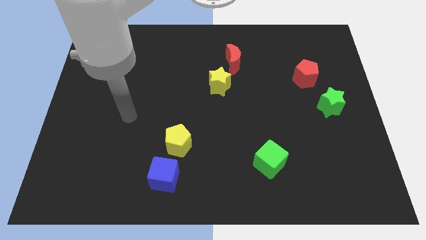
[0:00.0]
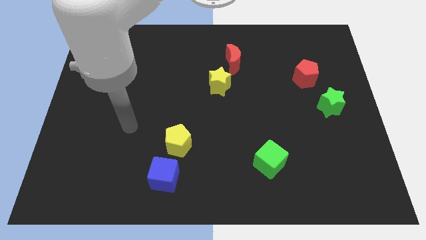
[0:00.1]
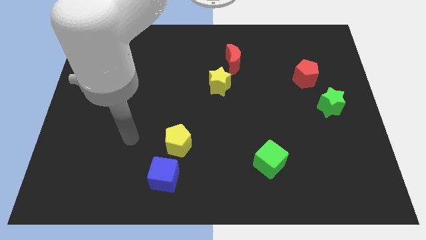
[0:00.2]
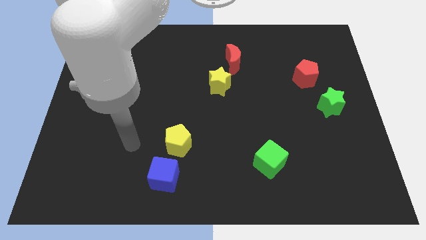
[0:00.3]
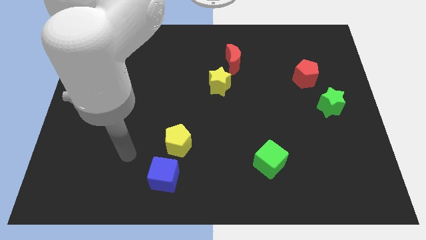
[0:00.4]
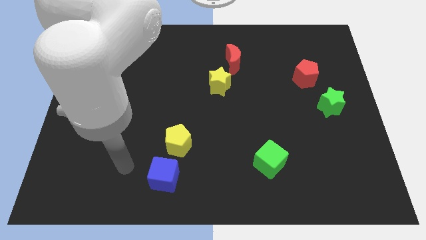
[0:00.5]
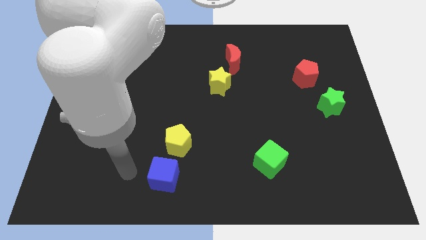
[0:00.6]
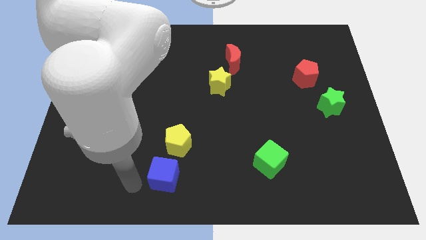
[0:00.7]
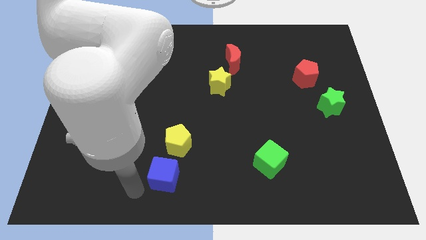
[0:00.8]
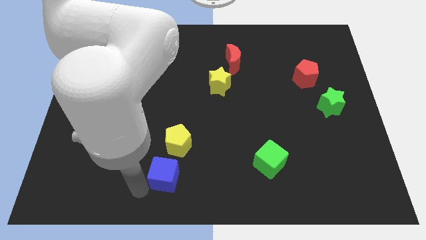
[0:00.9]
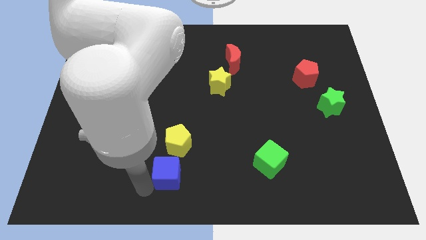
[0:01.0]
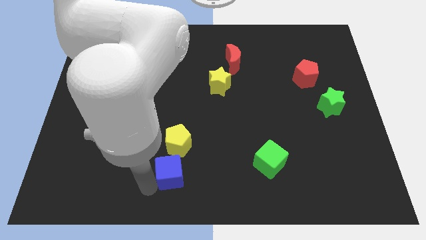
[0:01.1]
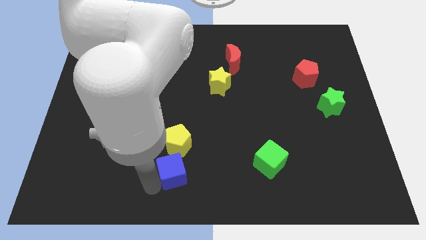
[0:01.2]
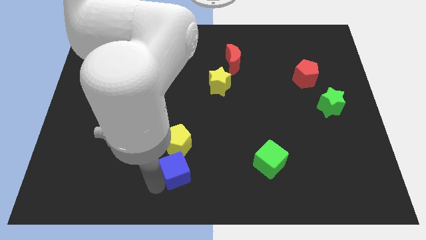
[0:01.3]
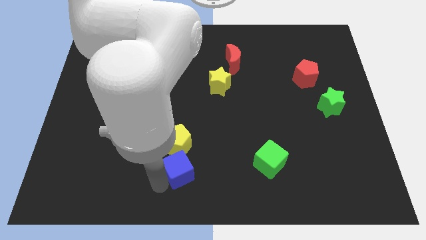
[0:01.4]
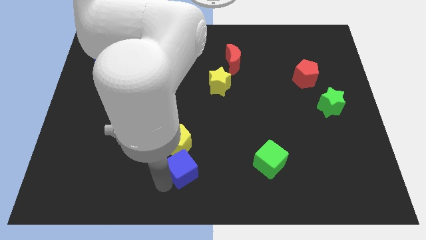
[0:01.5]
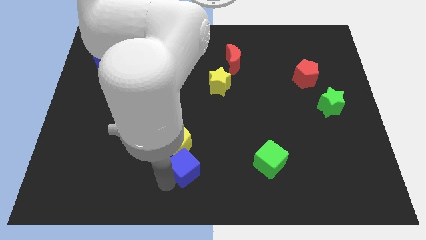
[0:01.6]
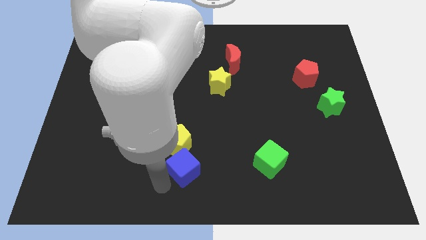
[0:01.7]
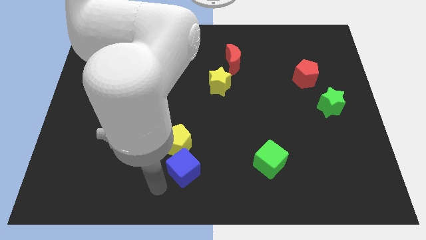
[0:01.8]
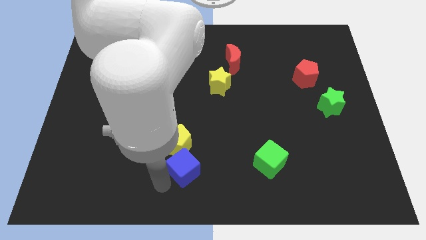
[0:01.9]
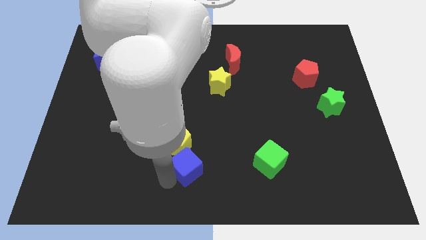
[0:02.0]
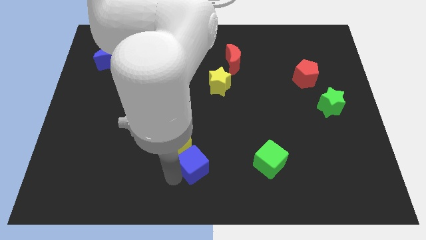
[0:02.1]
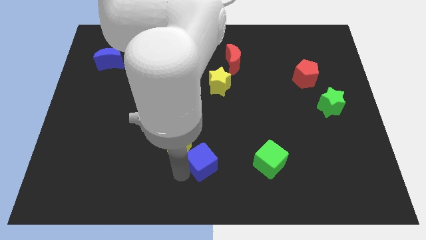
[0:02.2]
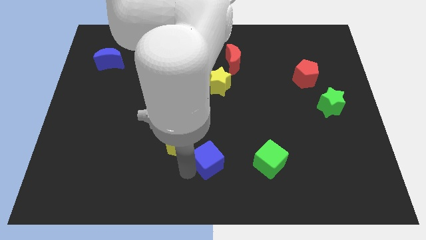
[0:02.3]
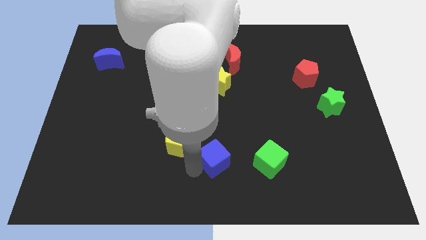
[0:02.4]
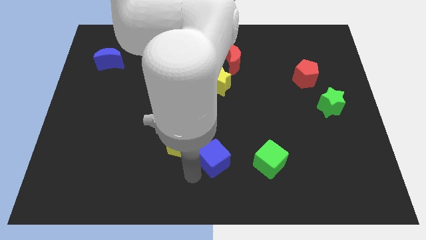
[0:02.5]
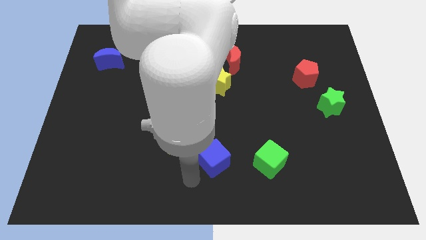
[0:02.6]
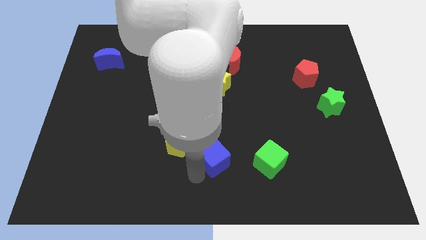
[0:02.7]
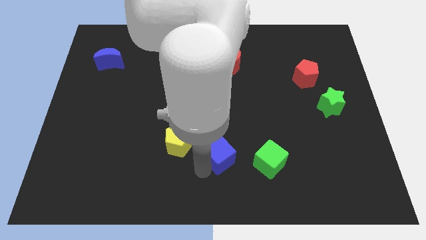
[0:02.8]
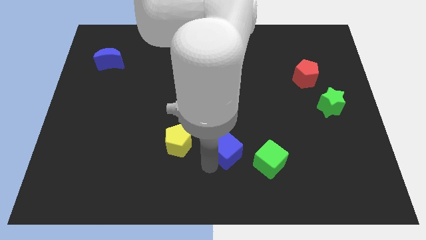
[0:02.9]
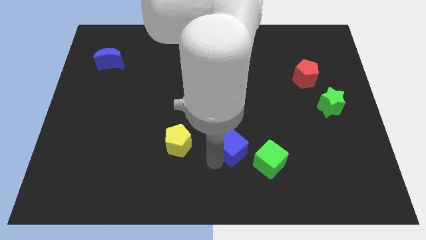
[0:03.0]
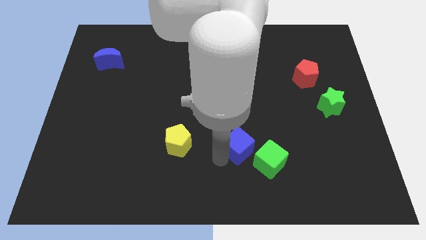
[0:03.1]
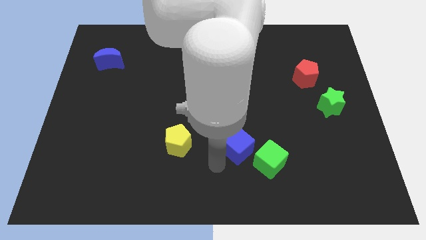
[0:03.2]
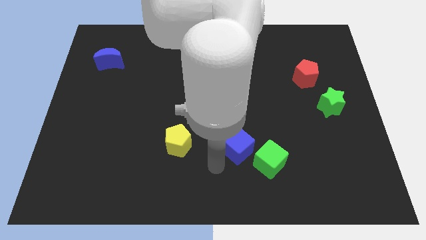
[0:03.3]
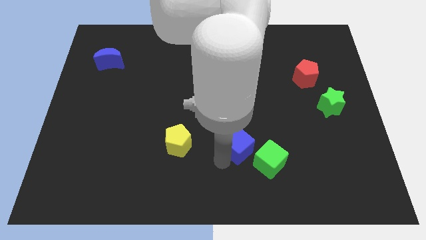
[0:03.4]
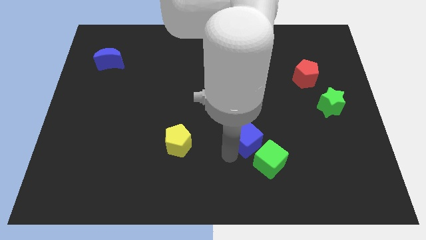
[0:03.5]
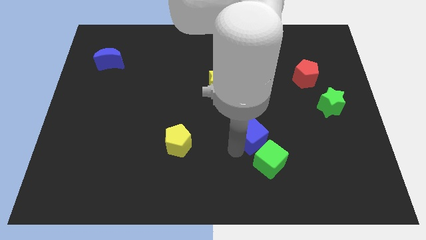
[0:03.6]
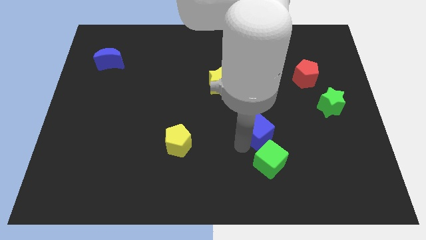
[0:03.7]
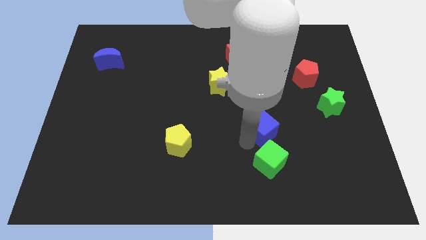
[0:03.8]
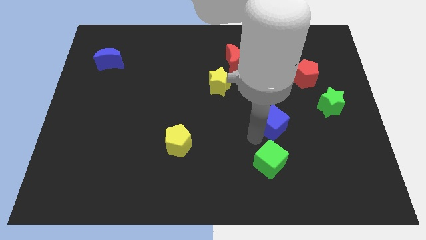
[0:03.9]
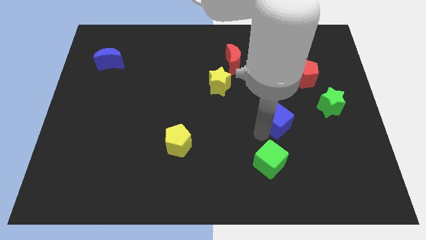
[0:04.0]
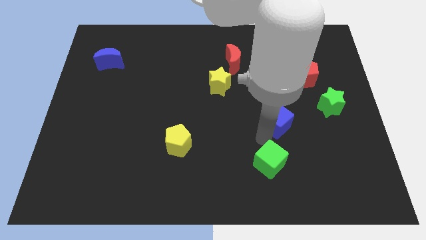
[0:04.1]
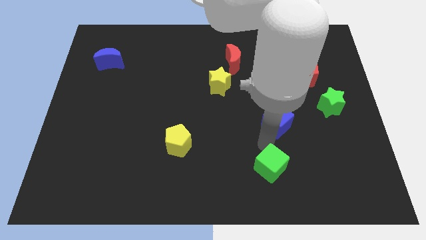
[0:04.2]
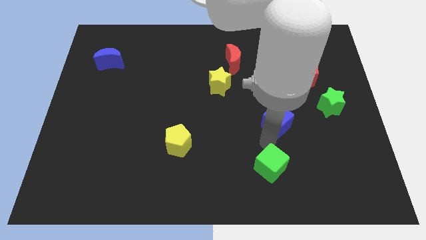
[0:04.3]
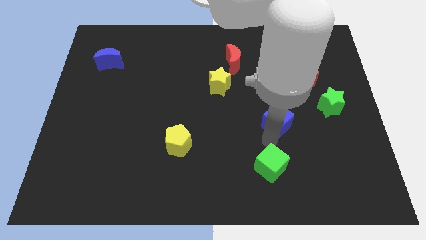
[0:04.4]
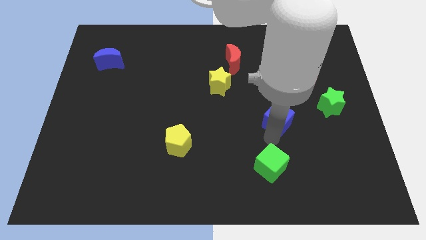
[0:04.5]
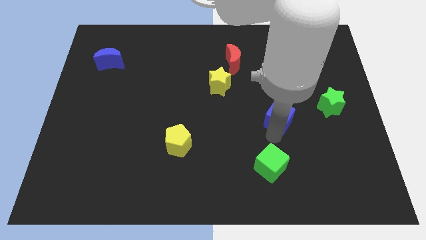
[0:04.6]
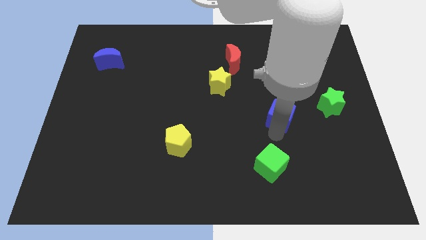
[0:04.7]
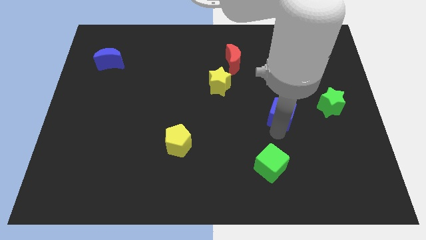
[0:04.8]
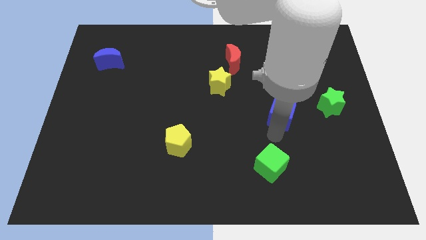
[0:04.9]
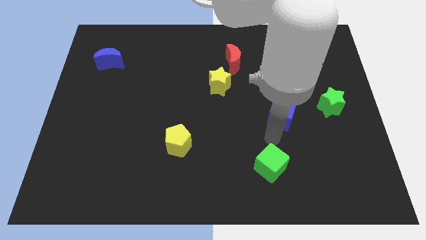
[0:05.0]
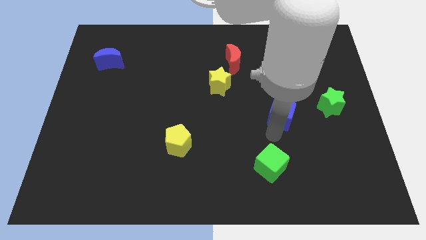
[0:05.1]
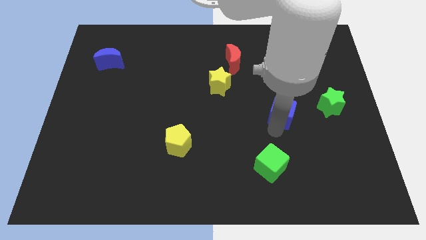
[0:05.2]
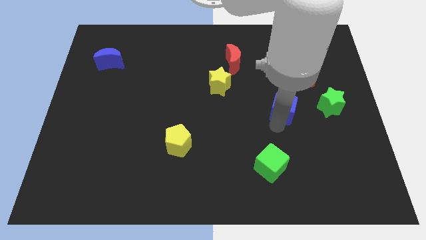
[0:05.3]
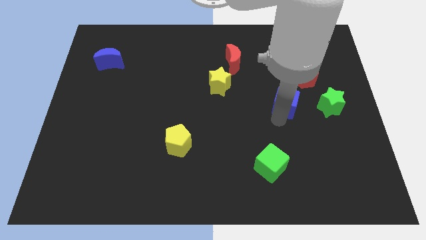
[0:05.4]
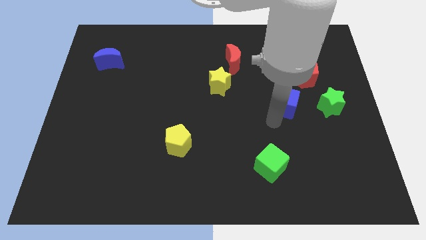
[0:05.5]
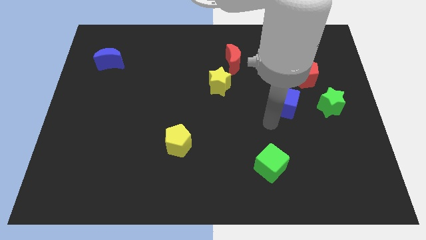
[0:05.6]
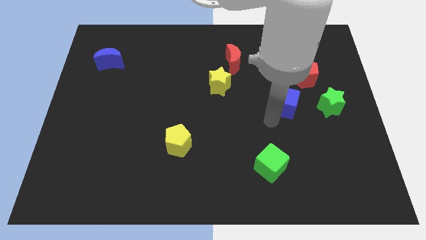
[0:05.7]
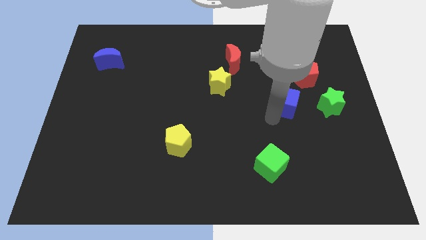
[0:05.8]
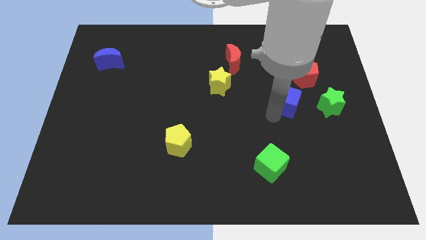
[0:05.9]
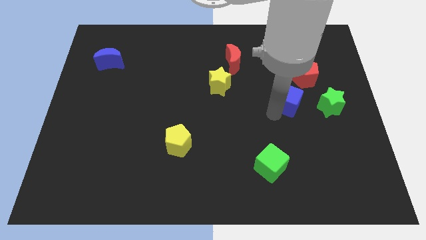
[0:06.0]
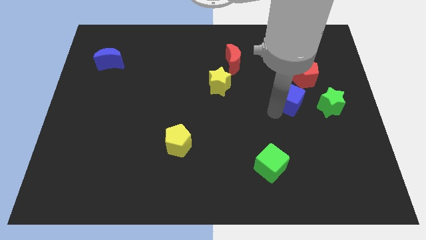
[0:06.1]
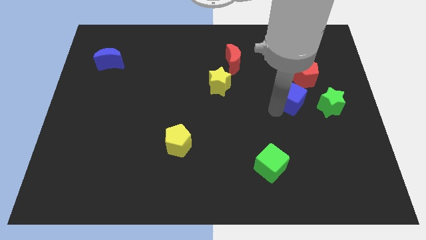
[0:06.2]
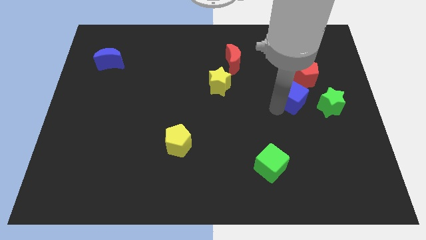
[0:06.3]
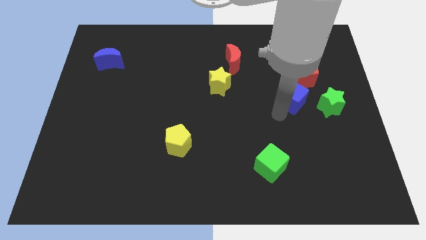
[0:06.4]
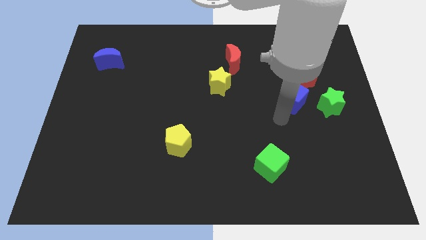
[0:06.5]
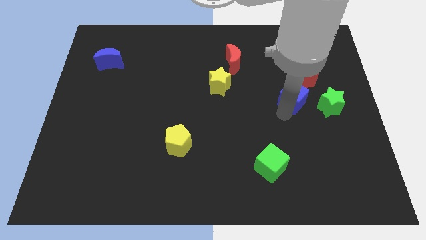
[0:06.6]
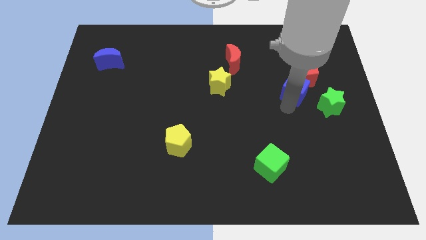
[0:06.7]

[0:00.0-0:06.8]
move the blue cube next to the red pentagon
